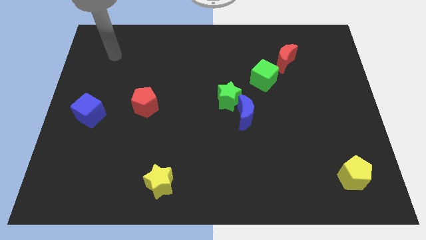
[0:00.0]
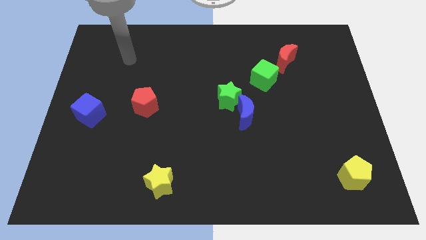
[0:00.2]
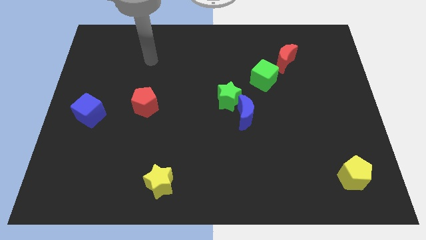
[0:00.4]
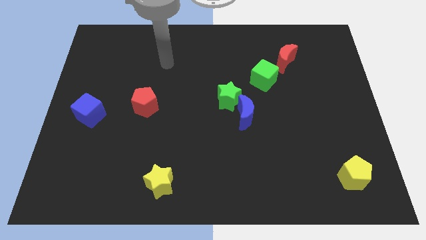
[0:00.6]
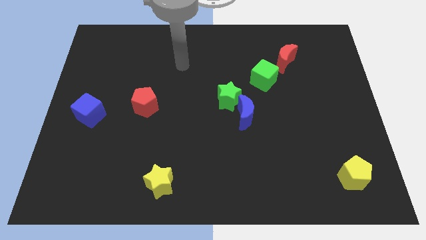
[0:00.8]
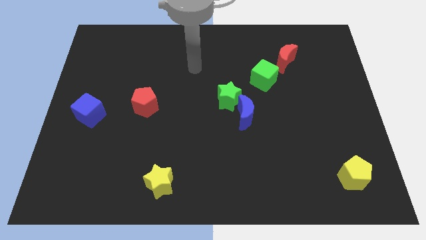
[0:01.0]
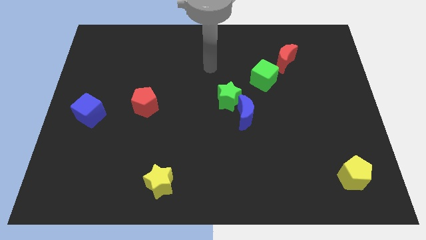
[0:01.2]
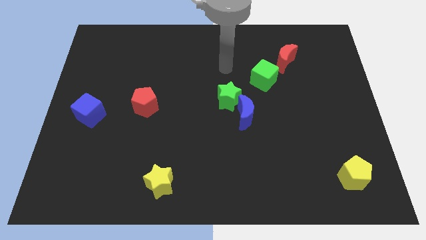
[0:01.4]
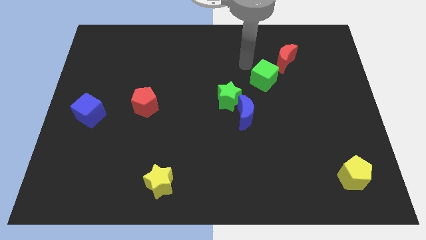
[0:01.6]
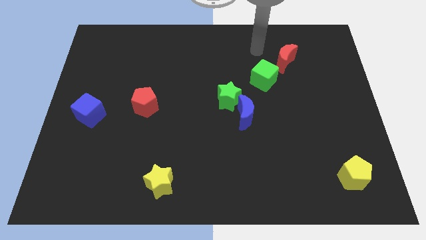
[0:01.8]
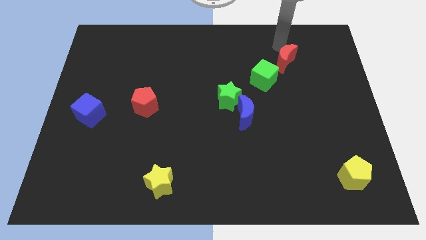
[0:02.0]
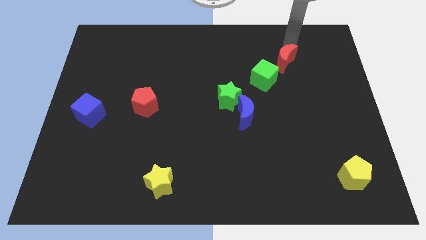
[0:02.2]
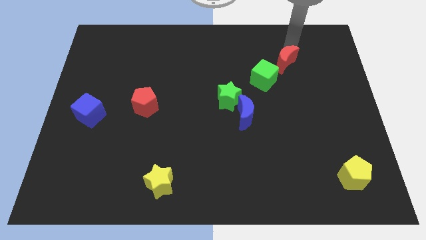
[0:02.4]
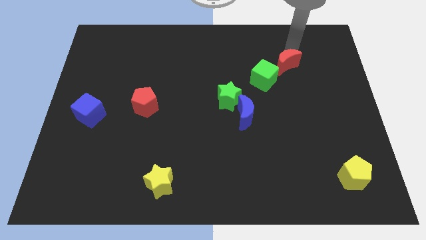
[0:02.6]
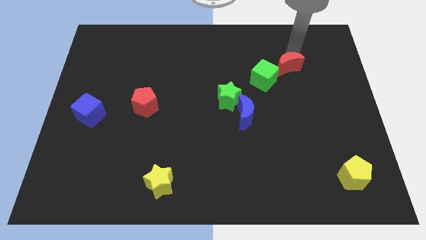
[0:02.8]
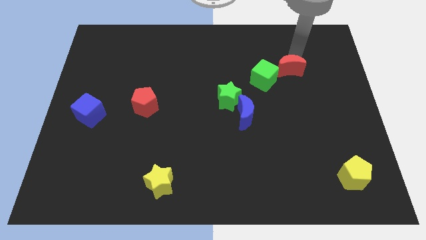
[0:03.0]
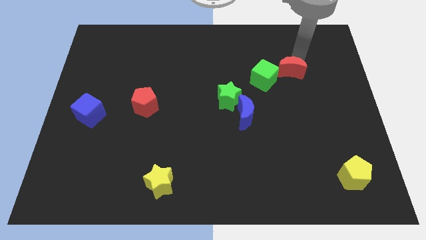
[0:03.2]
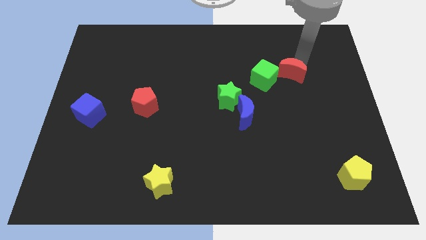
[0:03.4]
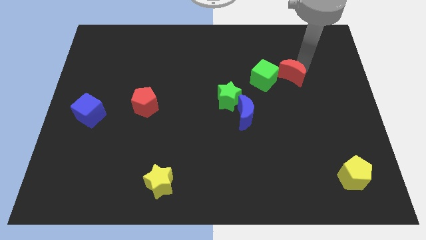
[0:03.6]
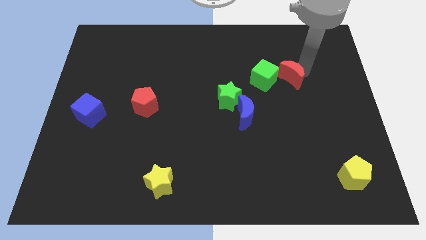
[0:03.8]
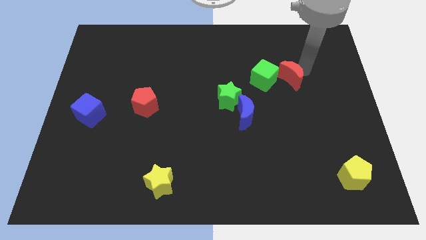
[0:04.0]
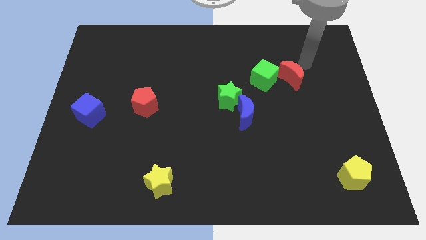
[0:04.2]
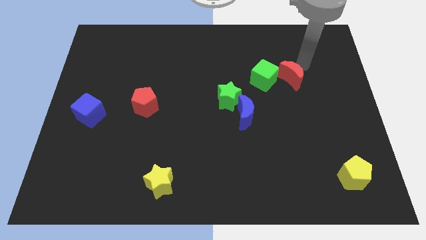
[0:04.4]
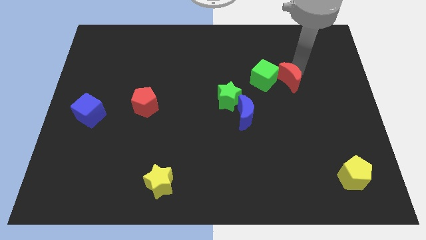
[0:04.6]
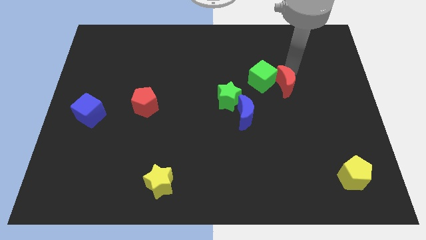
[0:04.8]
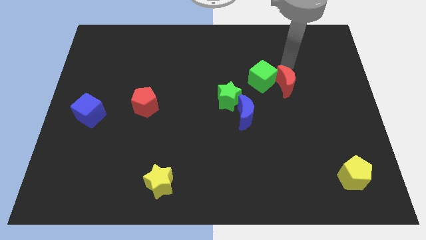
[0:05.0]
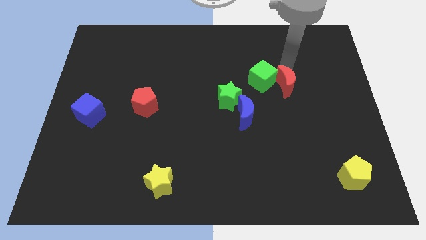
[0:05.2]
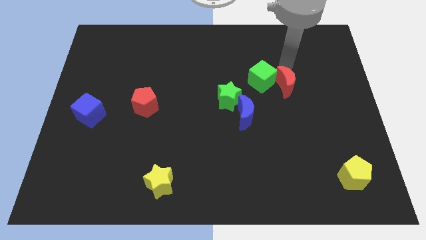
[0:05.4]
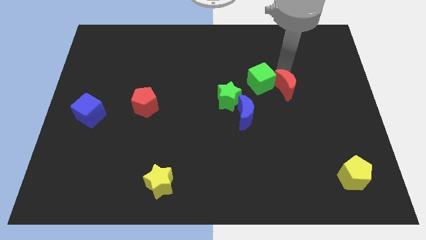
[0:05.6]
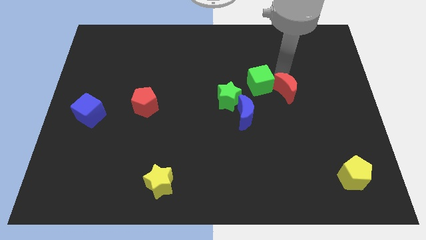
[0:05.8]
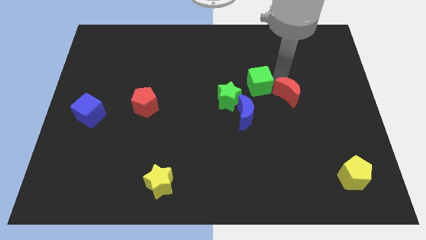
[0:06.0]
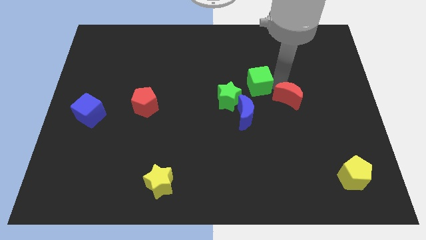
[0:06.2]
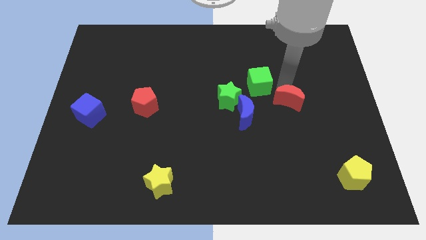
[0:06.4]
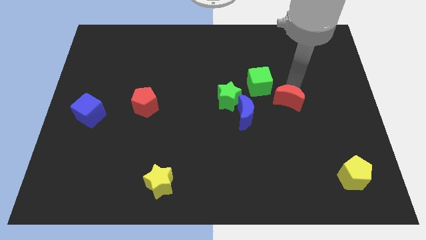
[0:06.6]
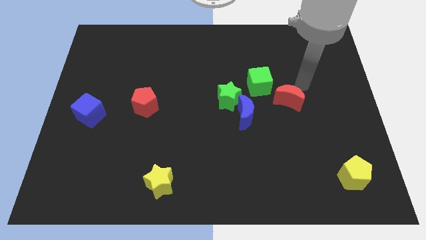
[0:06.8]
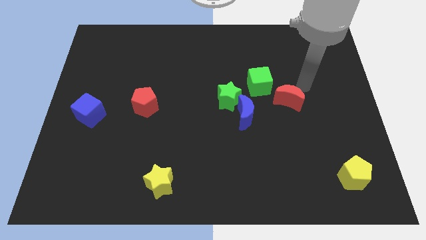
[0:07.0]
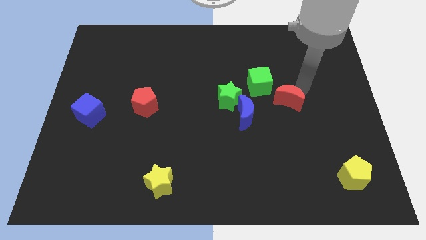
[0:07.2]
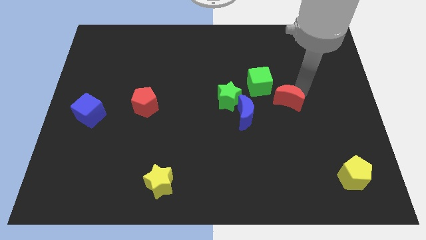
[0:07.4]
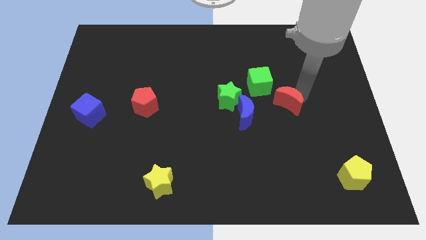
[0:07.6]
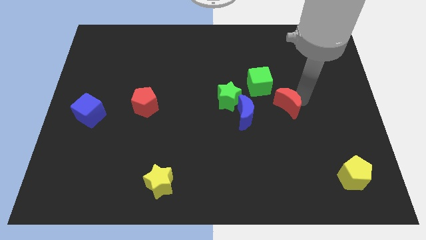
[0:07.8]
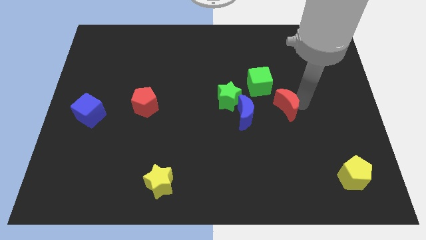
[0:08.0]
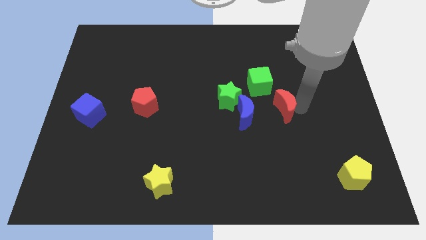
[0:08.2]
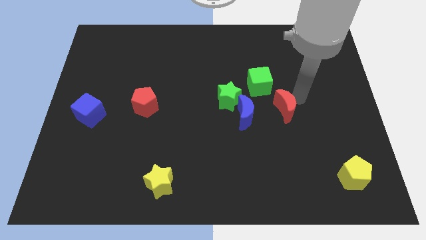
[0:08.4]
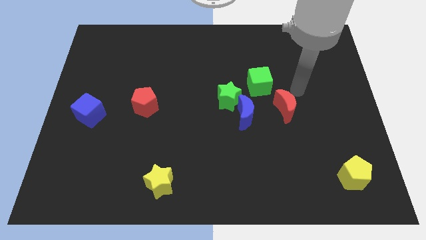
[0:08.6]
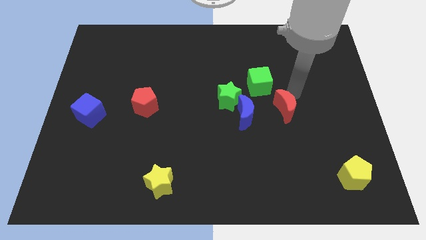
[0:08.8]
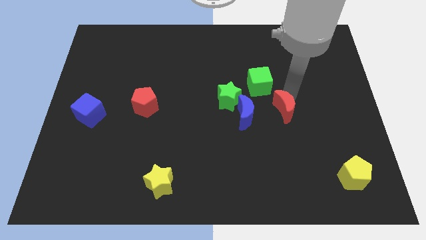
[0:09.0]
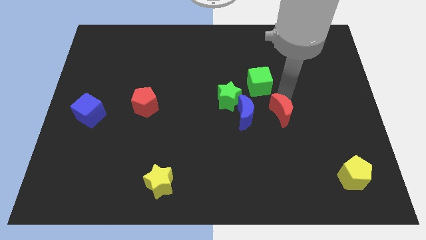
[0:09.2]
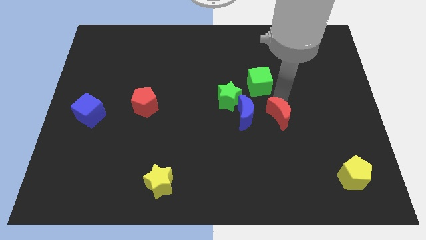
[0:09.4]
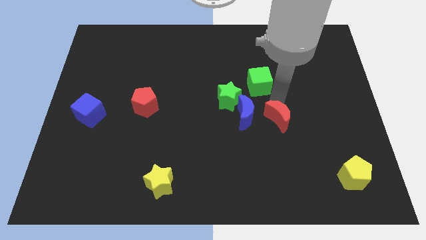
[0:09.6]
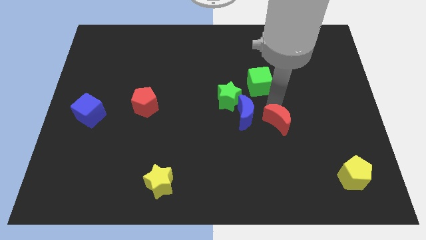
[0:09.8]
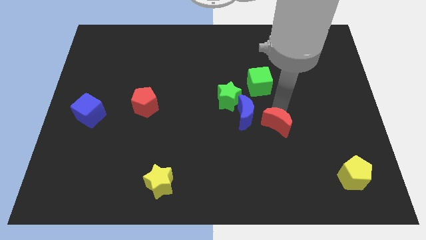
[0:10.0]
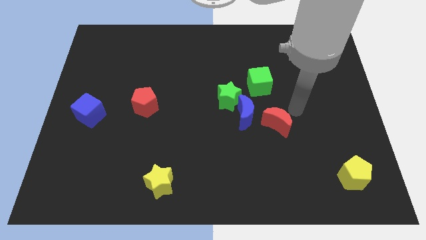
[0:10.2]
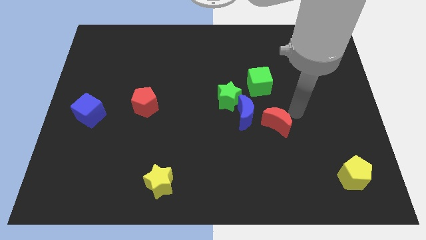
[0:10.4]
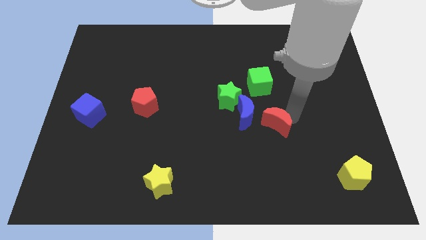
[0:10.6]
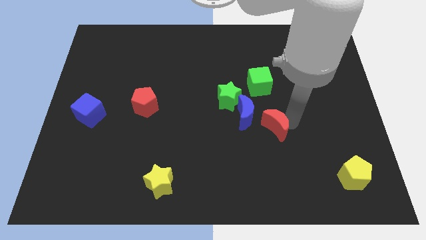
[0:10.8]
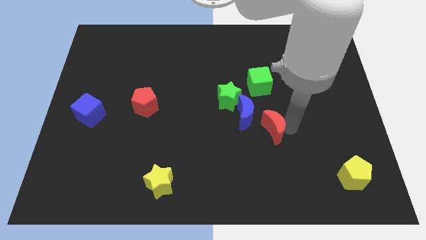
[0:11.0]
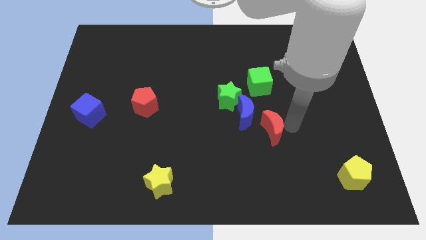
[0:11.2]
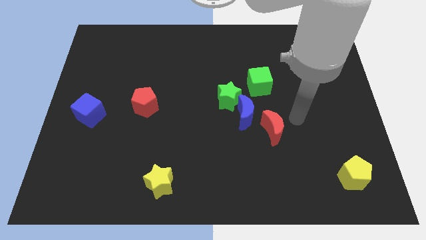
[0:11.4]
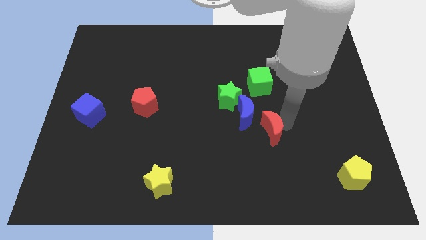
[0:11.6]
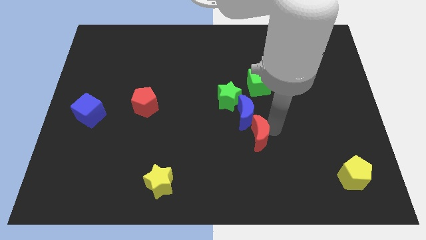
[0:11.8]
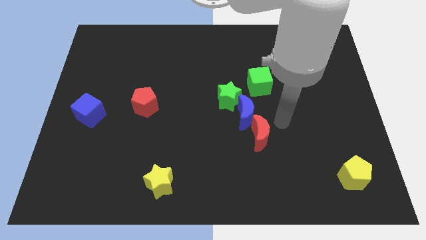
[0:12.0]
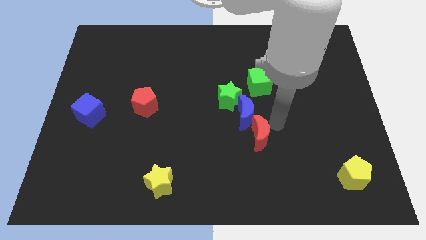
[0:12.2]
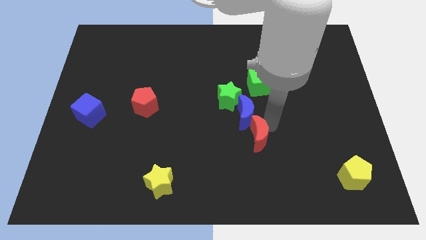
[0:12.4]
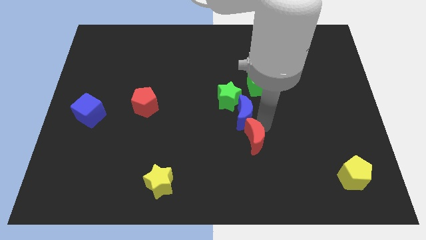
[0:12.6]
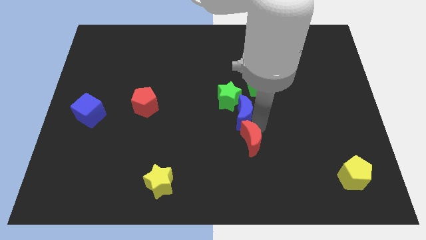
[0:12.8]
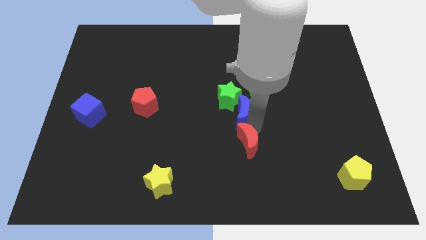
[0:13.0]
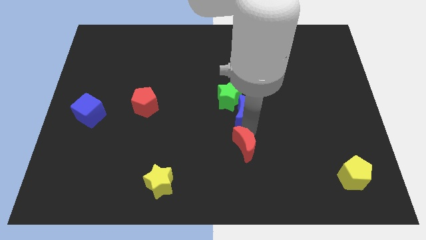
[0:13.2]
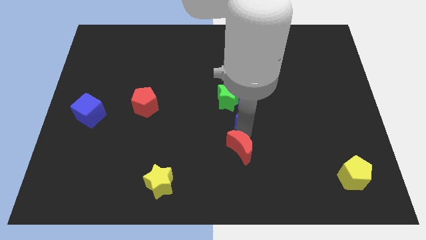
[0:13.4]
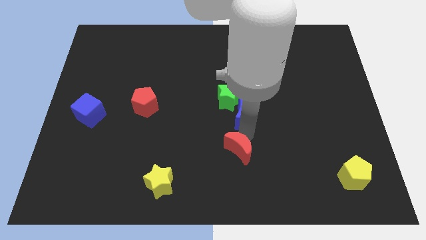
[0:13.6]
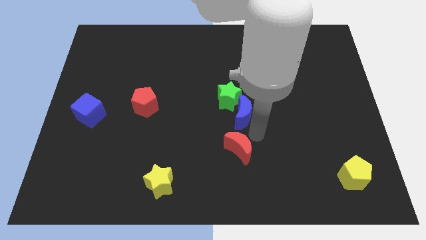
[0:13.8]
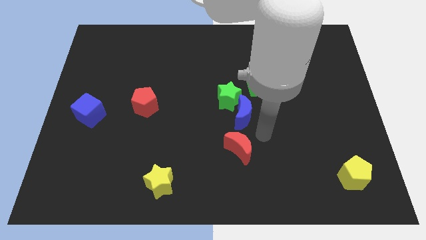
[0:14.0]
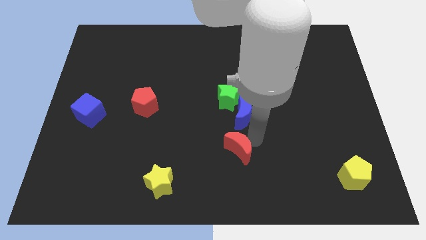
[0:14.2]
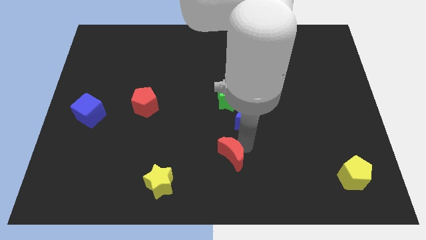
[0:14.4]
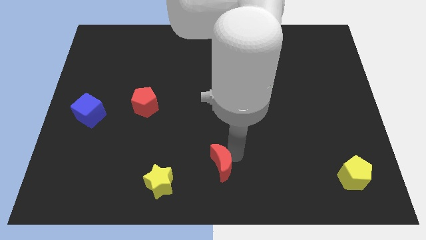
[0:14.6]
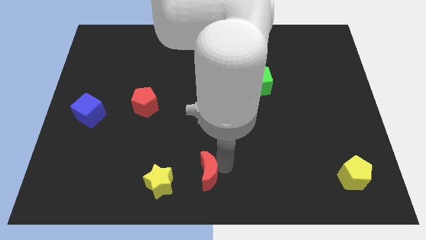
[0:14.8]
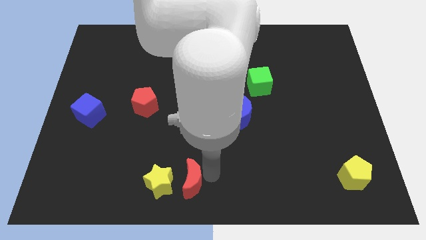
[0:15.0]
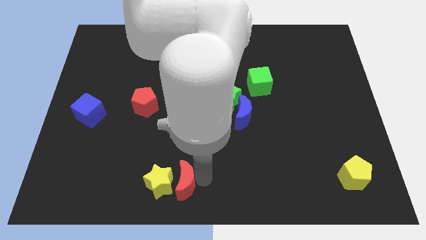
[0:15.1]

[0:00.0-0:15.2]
push the red moon close to the yellow star

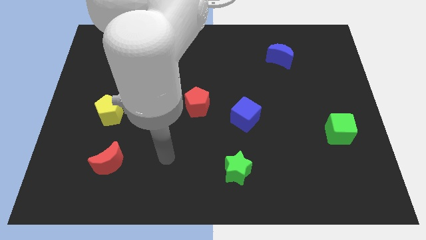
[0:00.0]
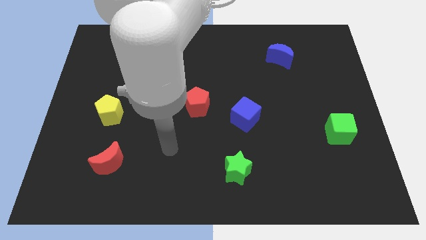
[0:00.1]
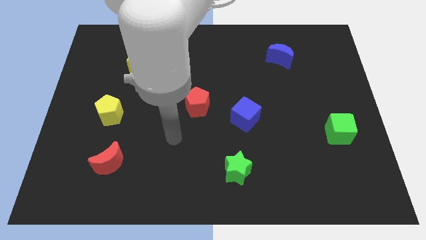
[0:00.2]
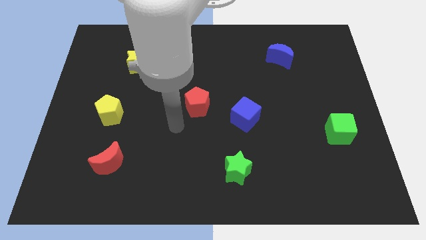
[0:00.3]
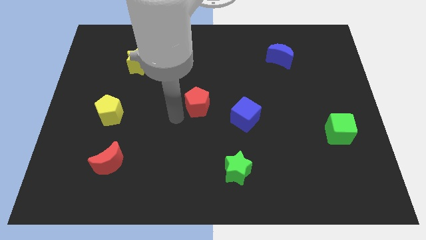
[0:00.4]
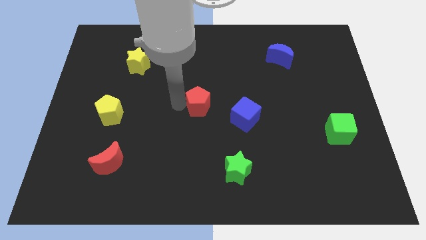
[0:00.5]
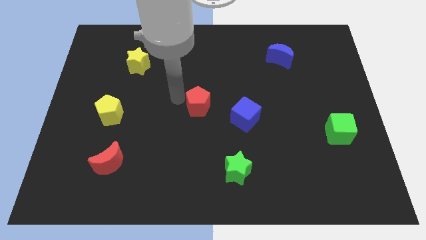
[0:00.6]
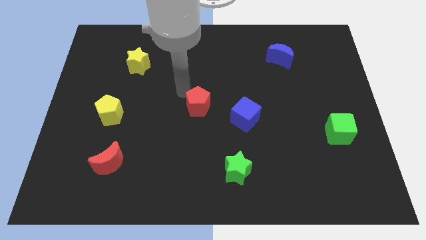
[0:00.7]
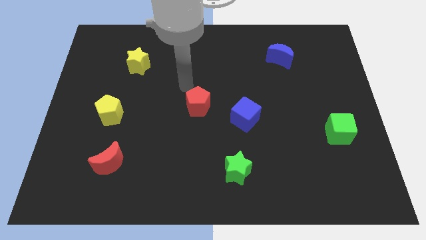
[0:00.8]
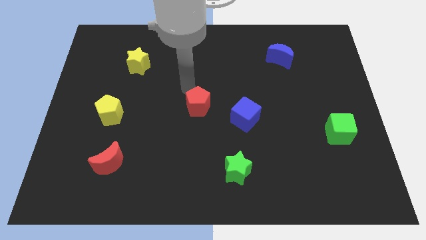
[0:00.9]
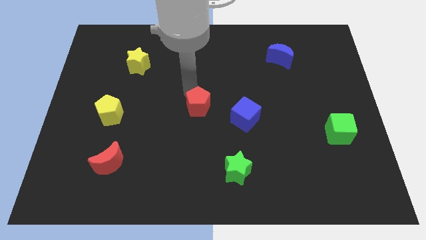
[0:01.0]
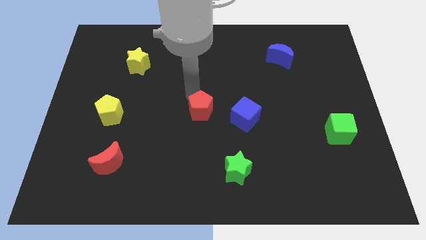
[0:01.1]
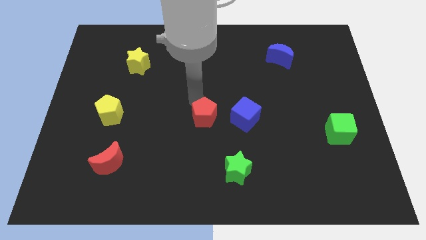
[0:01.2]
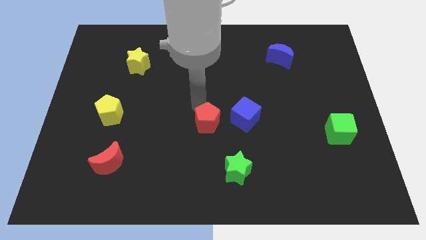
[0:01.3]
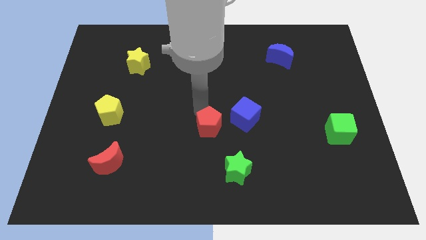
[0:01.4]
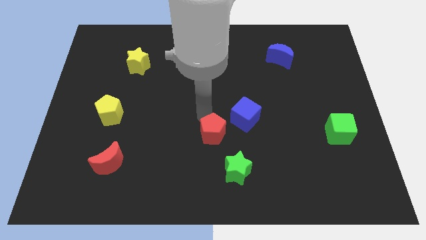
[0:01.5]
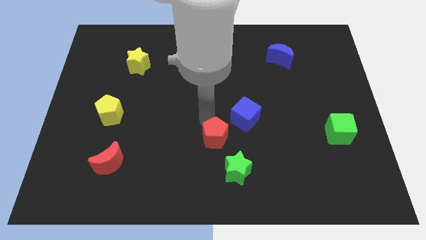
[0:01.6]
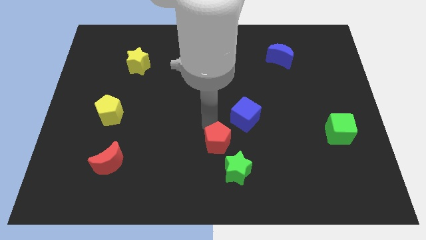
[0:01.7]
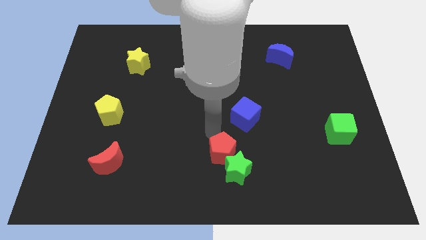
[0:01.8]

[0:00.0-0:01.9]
push the red pentagon to the green star
